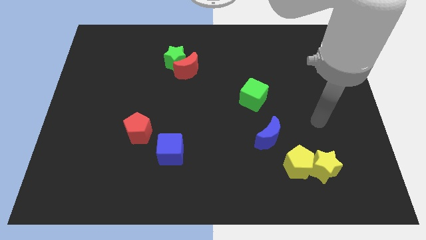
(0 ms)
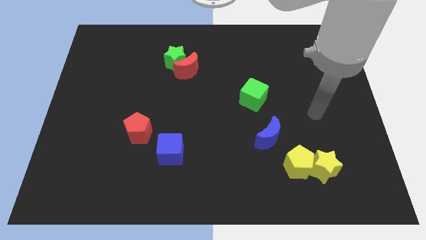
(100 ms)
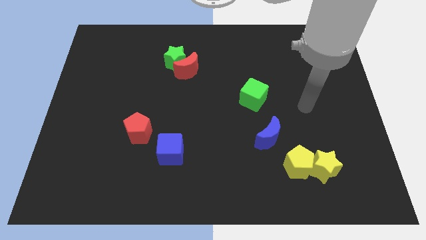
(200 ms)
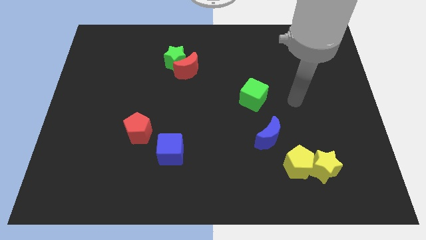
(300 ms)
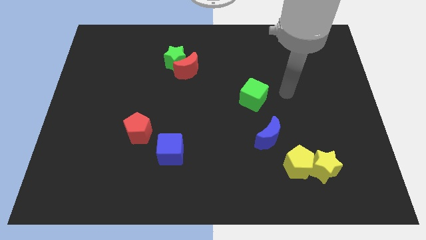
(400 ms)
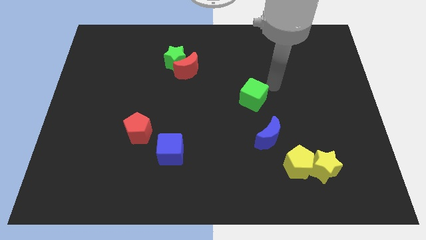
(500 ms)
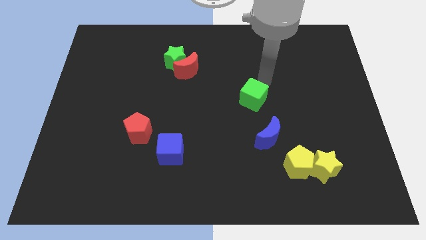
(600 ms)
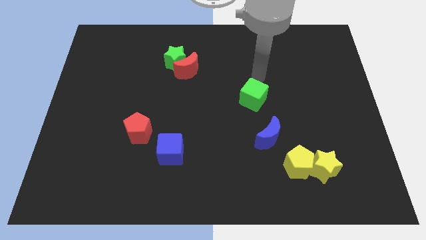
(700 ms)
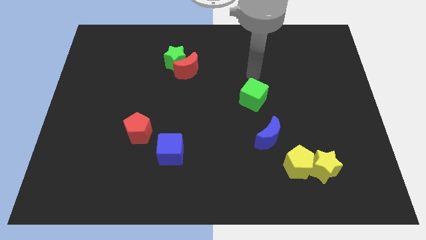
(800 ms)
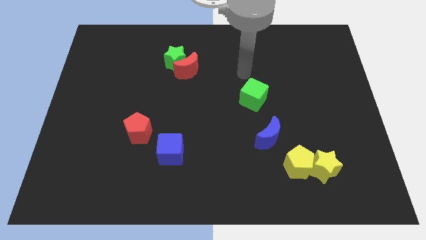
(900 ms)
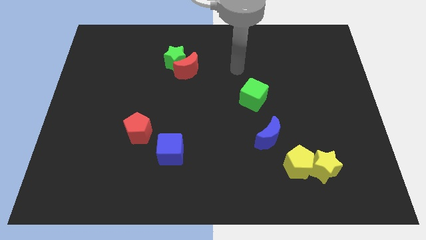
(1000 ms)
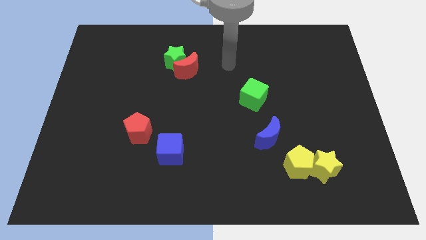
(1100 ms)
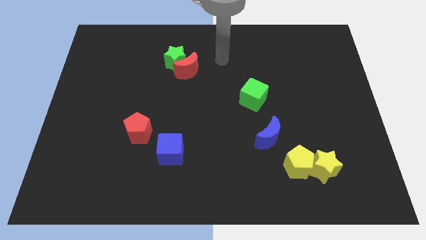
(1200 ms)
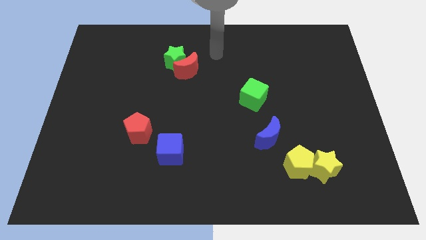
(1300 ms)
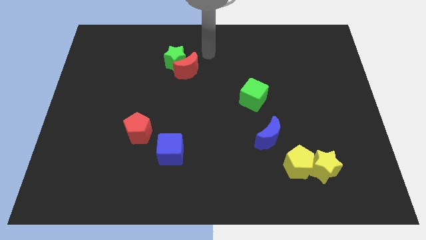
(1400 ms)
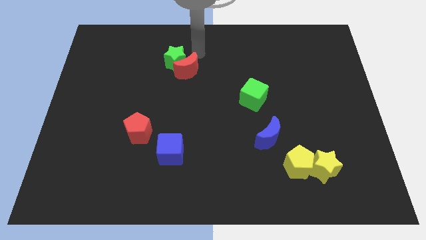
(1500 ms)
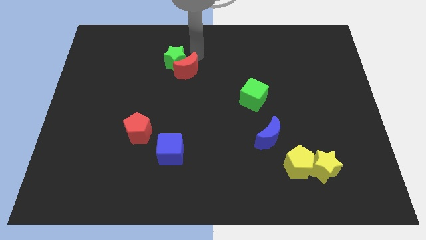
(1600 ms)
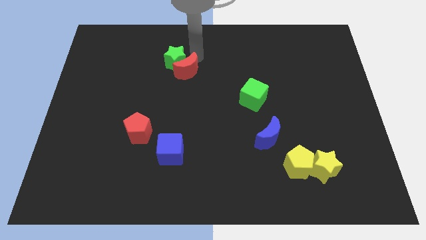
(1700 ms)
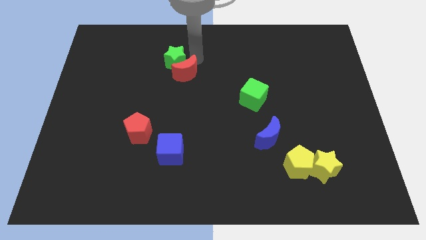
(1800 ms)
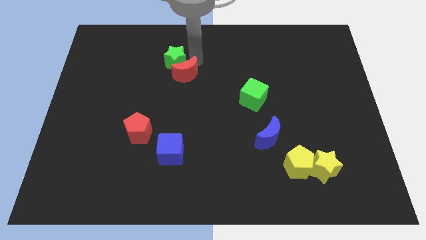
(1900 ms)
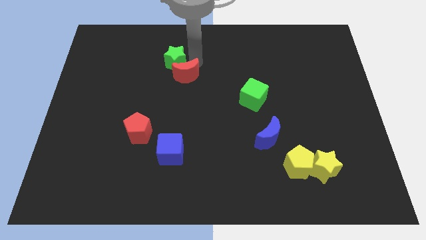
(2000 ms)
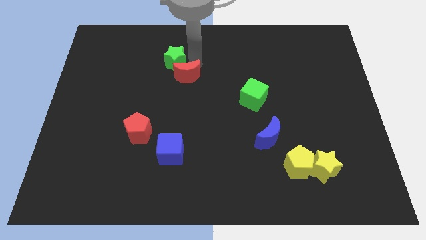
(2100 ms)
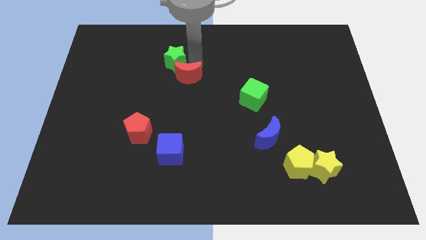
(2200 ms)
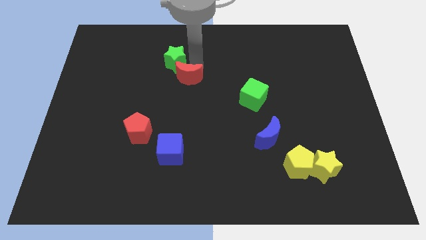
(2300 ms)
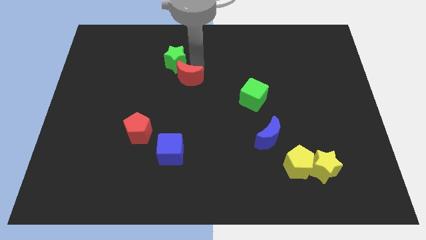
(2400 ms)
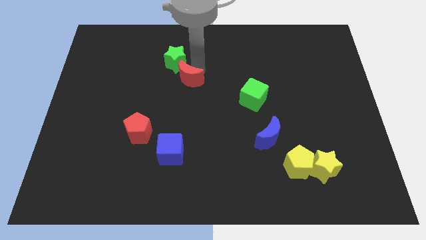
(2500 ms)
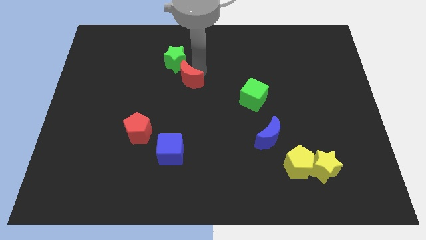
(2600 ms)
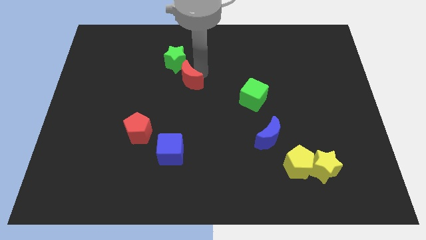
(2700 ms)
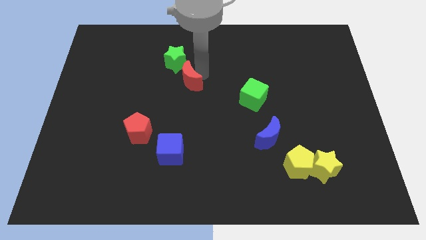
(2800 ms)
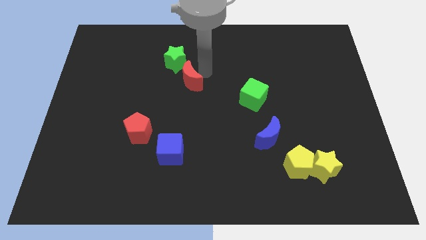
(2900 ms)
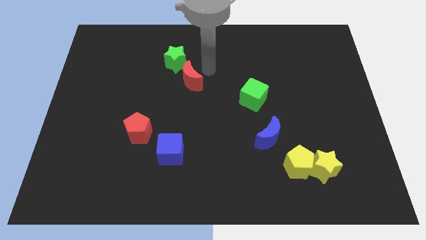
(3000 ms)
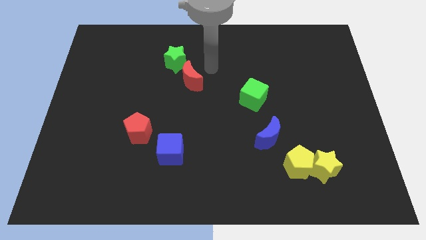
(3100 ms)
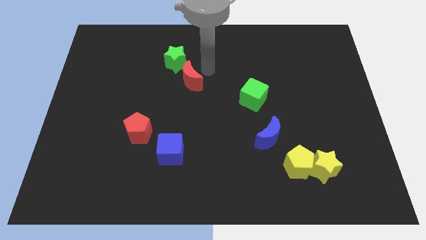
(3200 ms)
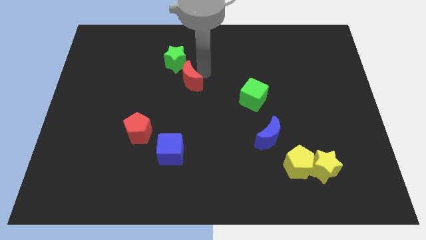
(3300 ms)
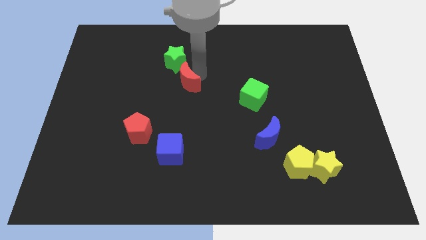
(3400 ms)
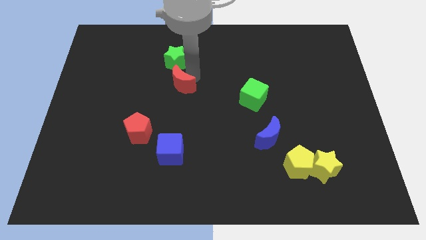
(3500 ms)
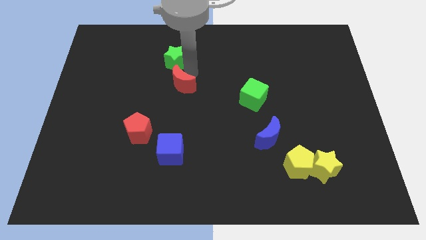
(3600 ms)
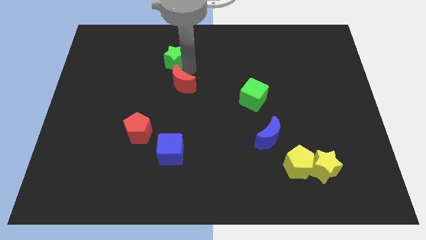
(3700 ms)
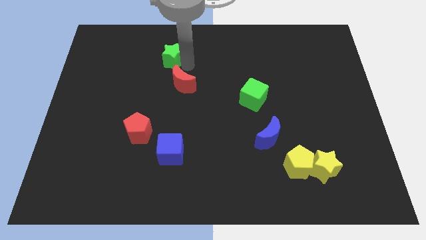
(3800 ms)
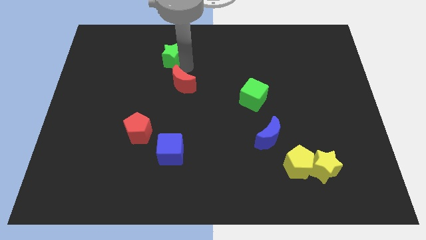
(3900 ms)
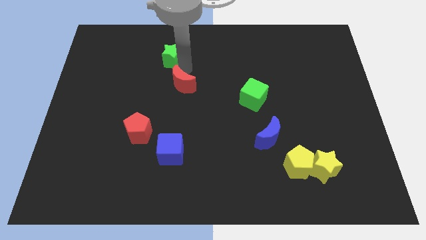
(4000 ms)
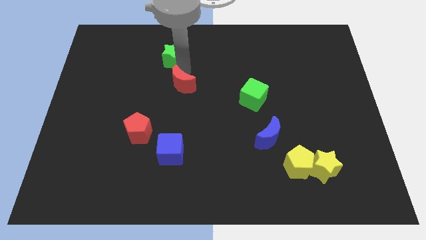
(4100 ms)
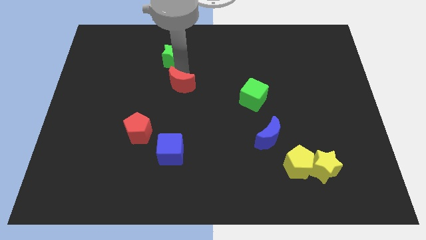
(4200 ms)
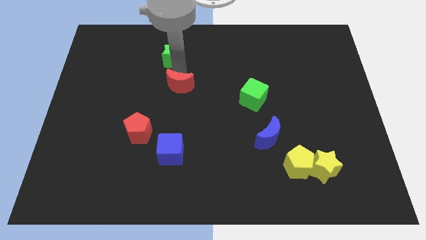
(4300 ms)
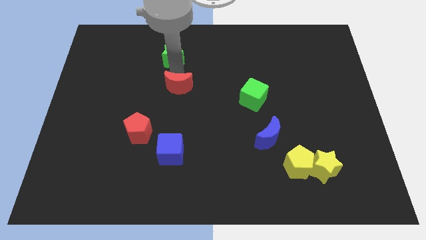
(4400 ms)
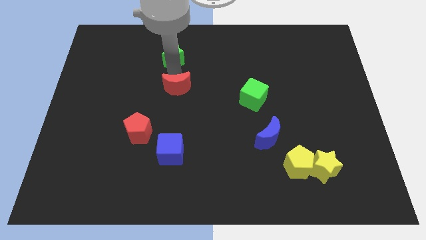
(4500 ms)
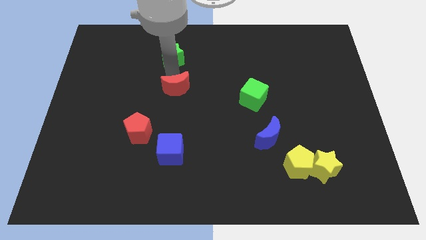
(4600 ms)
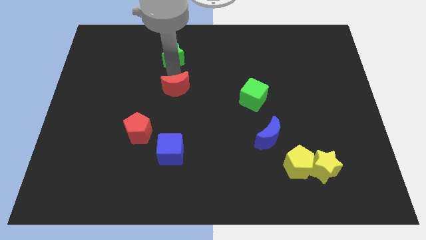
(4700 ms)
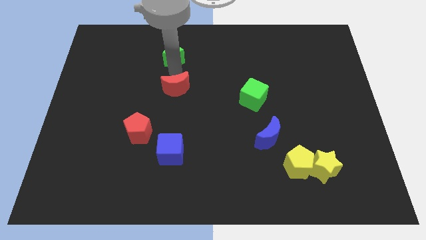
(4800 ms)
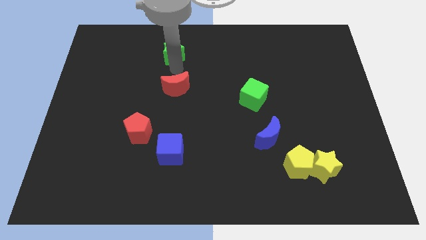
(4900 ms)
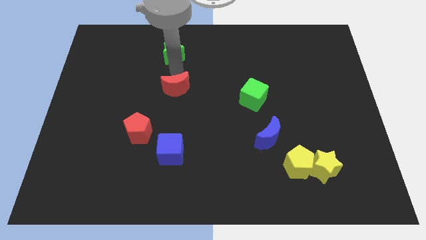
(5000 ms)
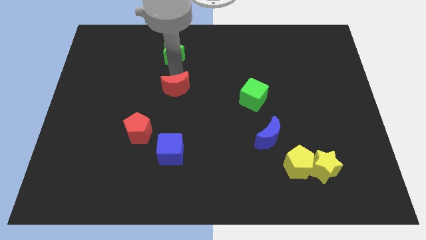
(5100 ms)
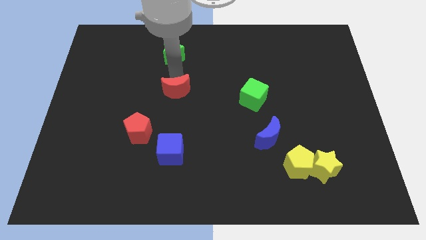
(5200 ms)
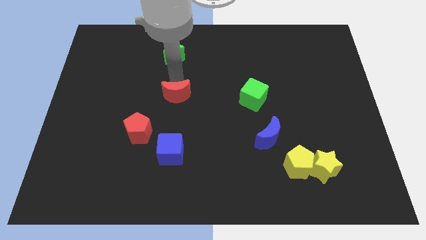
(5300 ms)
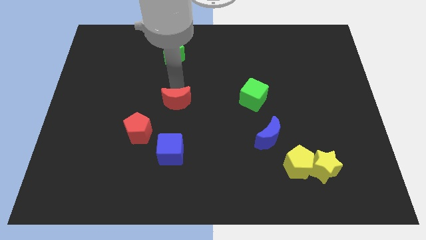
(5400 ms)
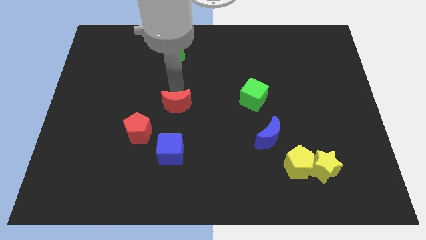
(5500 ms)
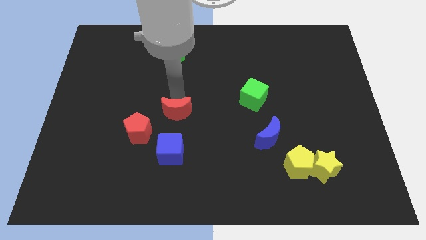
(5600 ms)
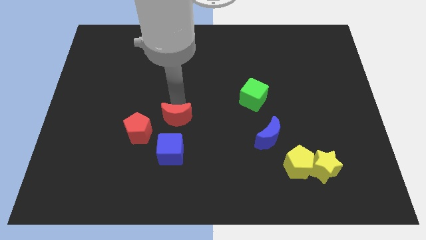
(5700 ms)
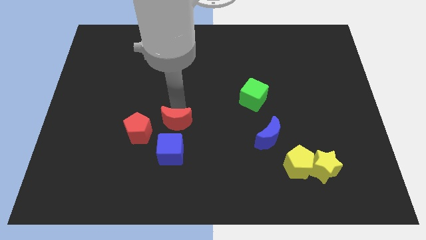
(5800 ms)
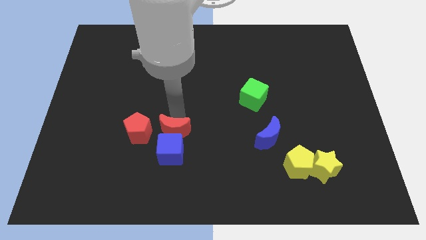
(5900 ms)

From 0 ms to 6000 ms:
push the red moon close to the blue cube

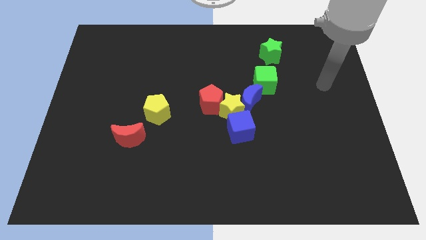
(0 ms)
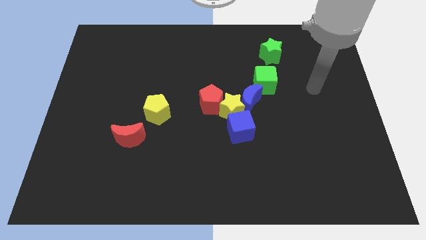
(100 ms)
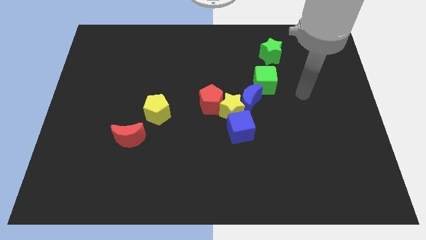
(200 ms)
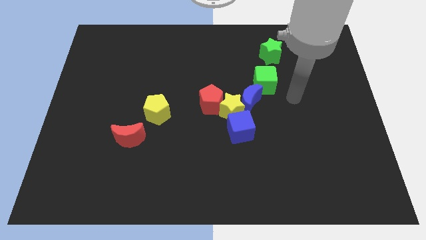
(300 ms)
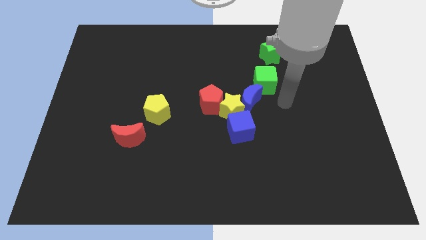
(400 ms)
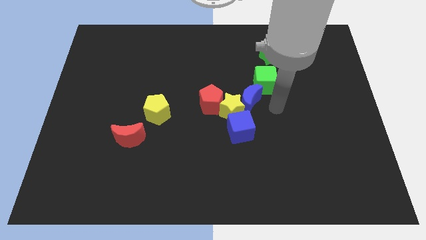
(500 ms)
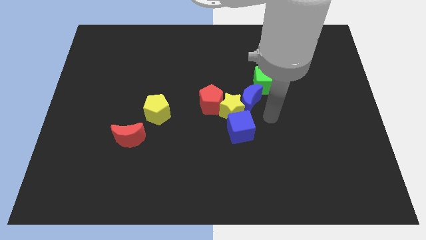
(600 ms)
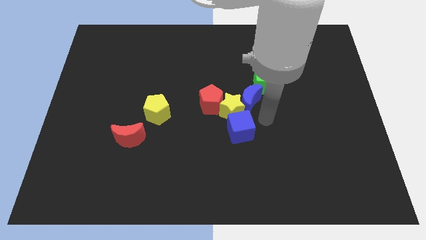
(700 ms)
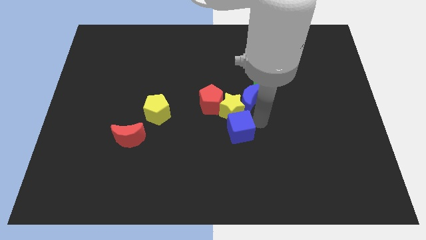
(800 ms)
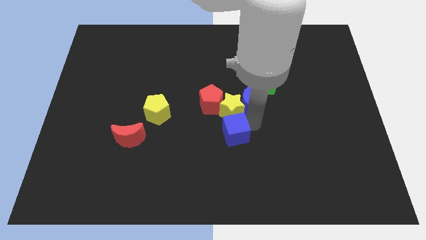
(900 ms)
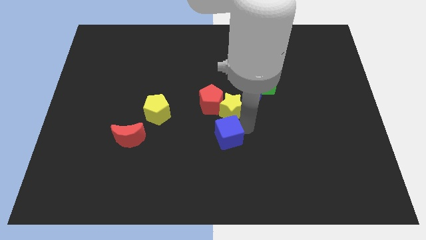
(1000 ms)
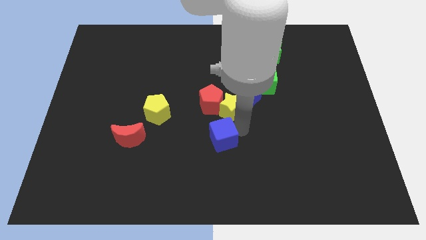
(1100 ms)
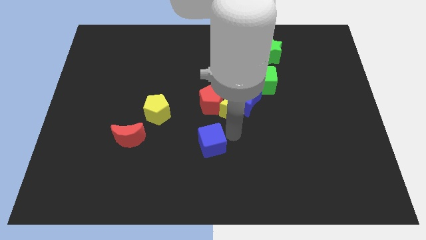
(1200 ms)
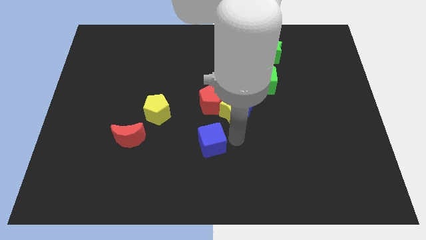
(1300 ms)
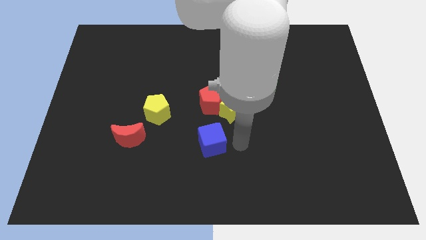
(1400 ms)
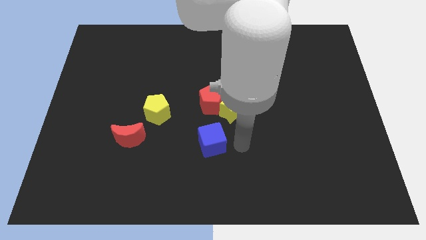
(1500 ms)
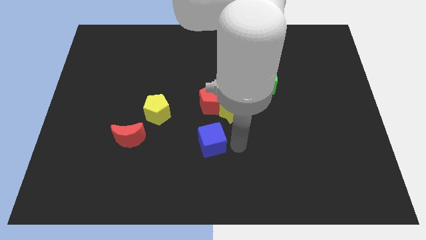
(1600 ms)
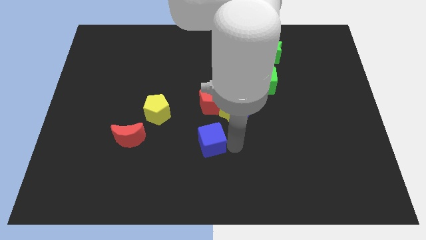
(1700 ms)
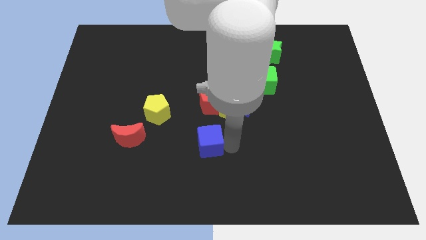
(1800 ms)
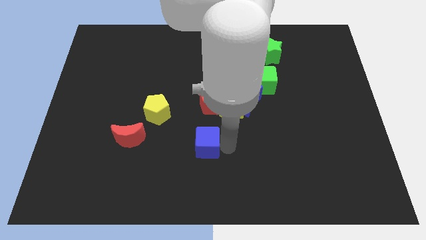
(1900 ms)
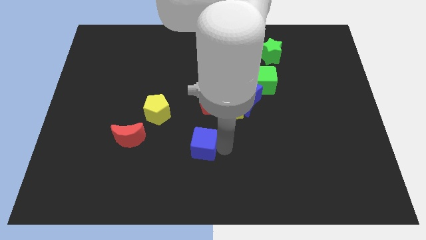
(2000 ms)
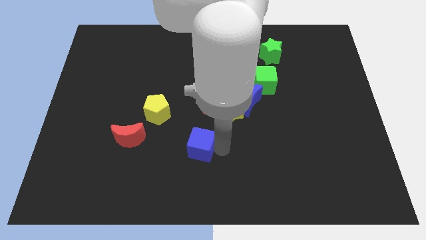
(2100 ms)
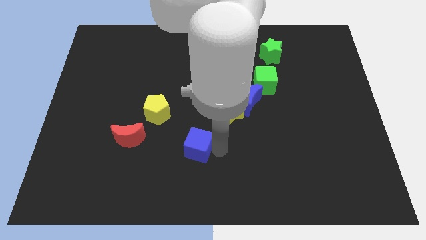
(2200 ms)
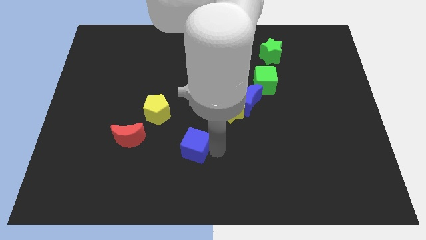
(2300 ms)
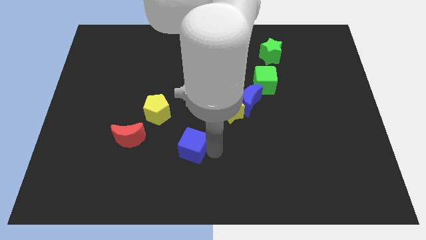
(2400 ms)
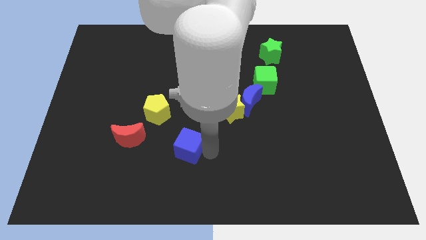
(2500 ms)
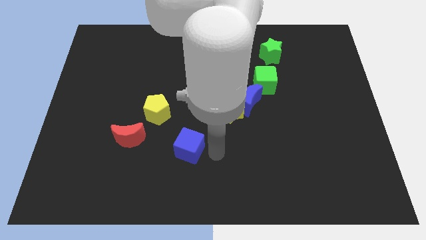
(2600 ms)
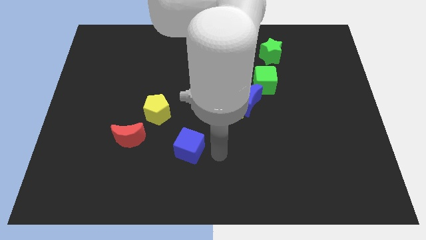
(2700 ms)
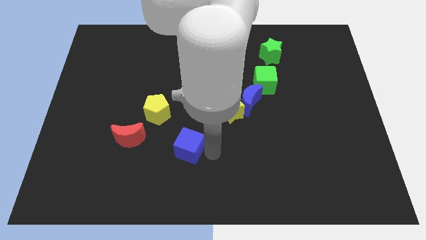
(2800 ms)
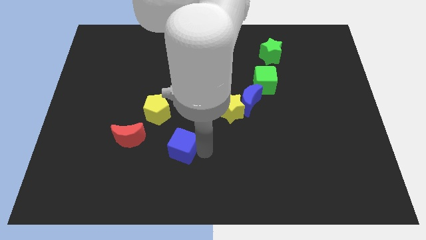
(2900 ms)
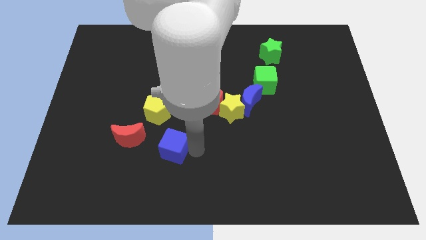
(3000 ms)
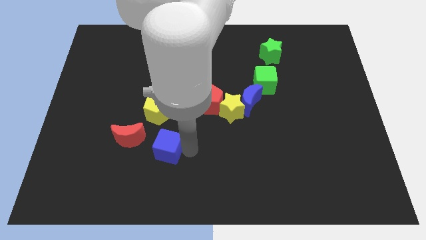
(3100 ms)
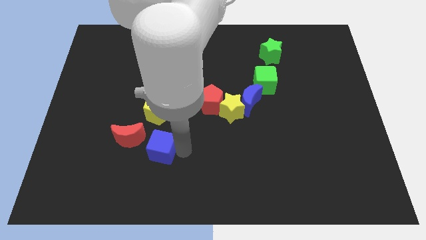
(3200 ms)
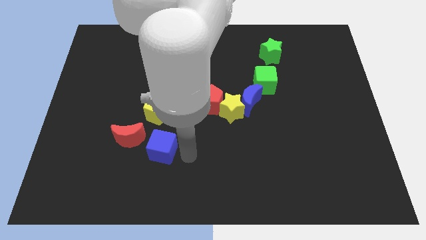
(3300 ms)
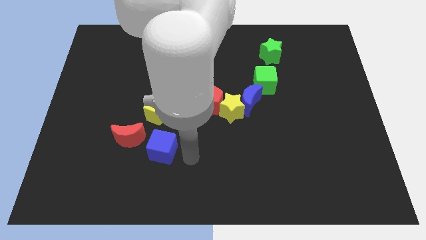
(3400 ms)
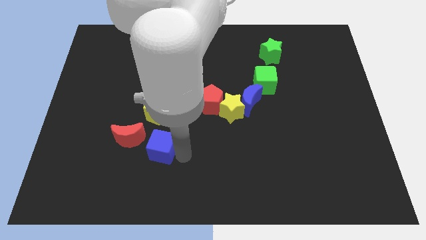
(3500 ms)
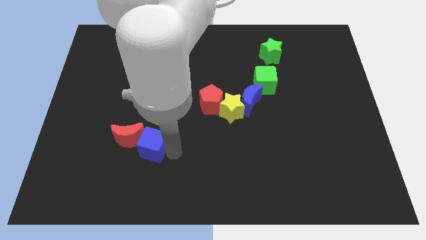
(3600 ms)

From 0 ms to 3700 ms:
push the blue cube to the red moon
